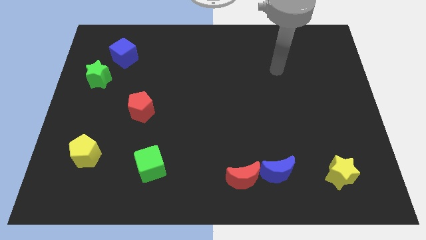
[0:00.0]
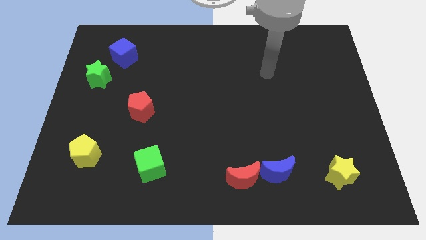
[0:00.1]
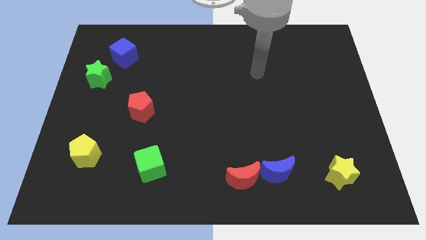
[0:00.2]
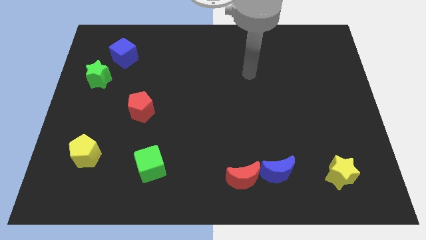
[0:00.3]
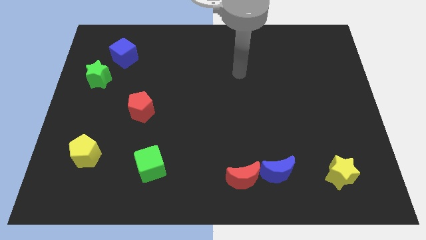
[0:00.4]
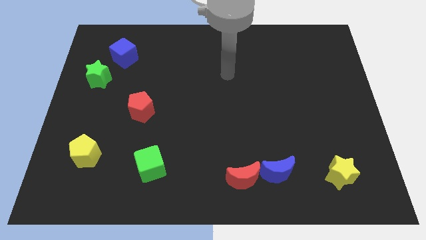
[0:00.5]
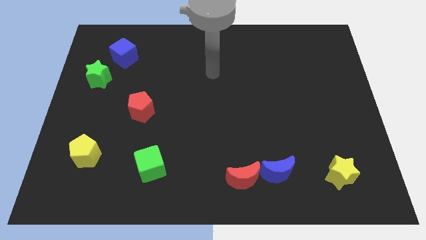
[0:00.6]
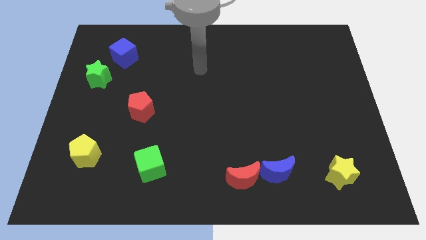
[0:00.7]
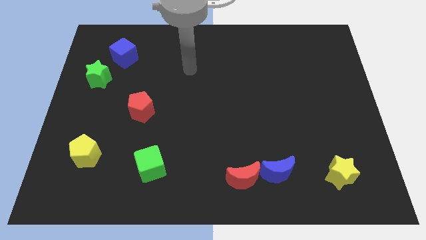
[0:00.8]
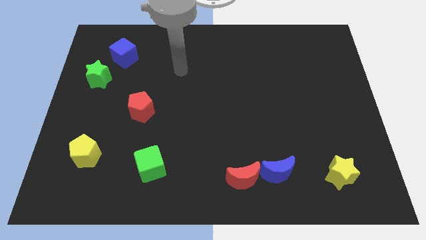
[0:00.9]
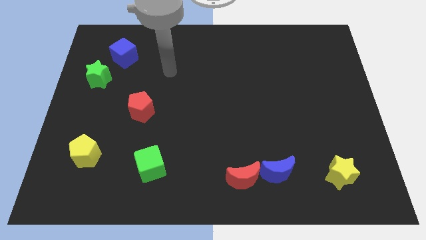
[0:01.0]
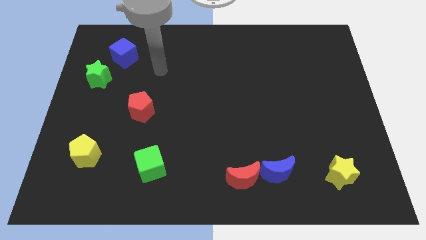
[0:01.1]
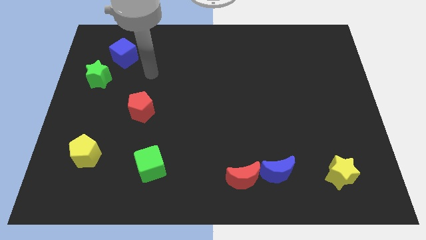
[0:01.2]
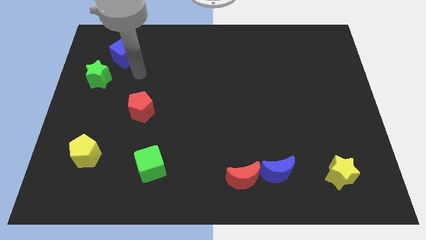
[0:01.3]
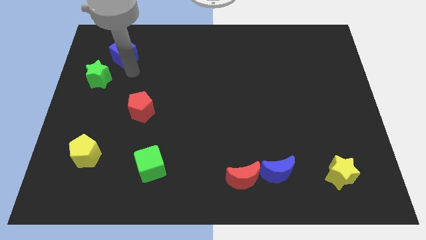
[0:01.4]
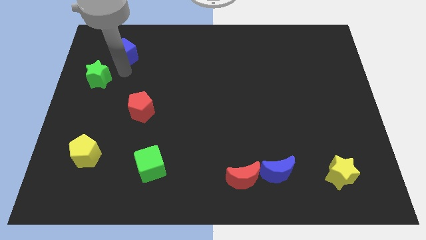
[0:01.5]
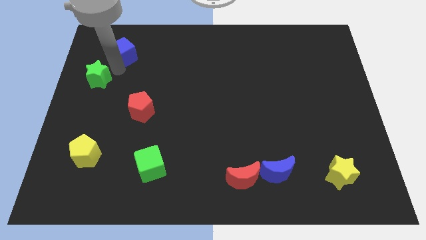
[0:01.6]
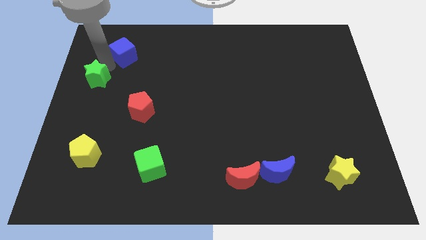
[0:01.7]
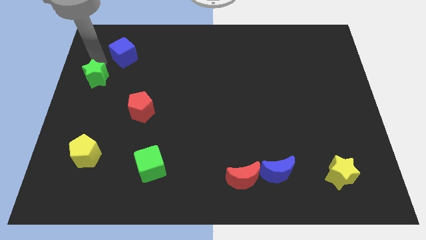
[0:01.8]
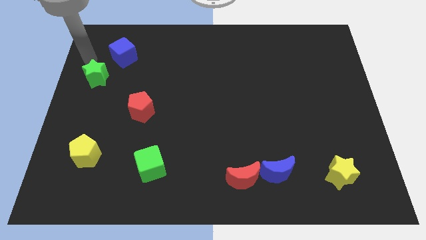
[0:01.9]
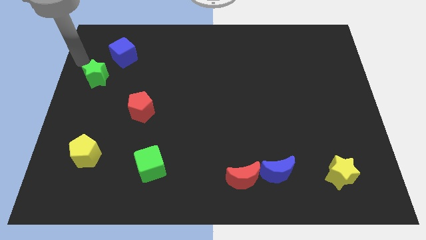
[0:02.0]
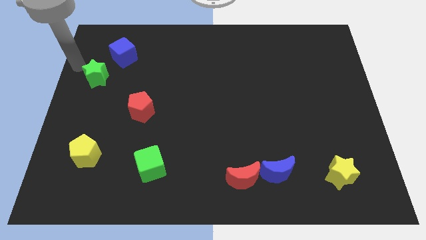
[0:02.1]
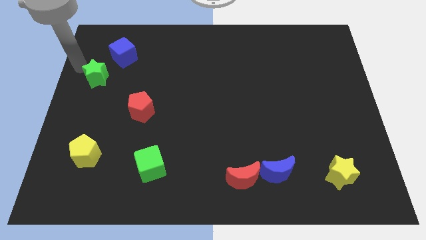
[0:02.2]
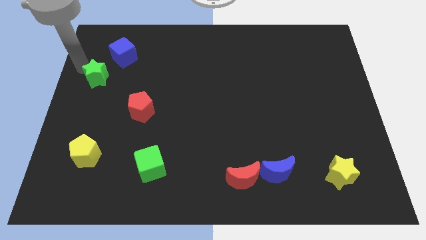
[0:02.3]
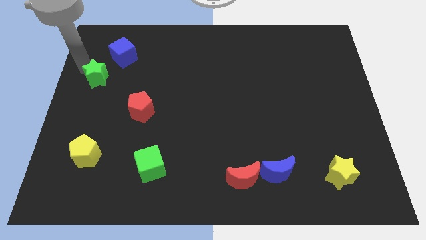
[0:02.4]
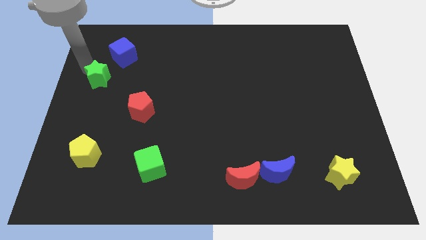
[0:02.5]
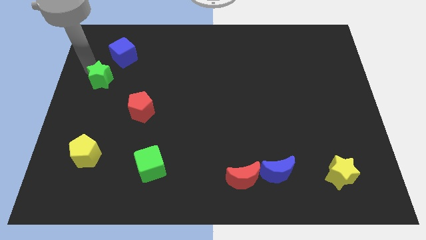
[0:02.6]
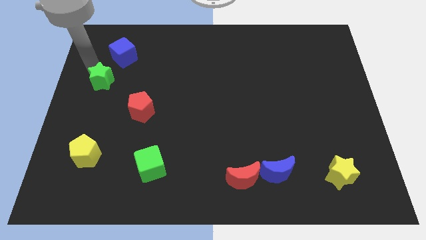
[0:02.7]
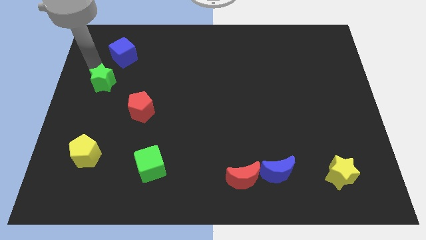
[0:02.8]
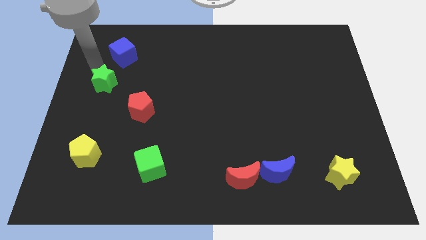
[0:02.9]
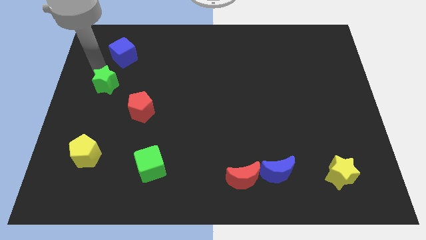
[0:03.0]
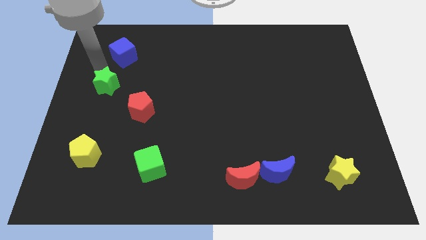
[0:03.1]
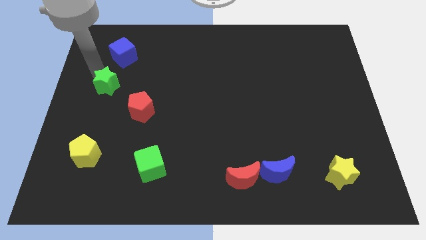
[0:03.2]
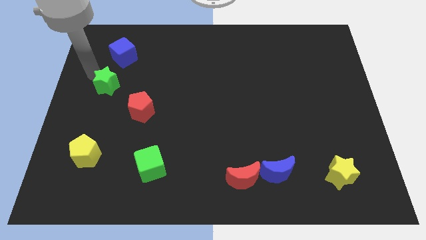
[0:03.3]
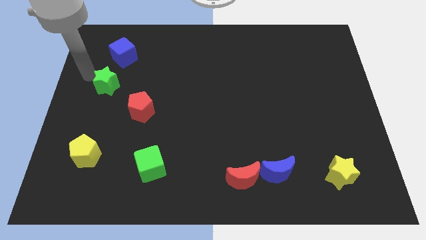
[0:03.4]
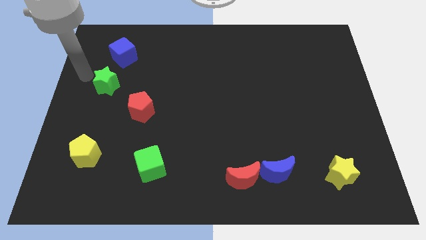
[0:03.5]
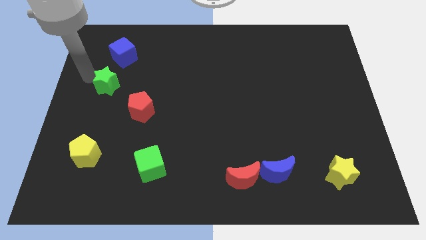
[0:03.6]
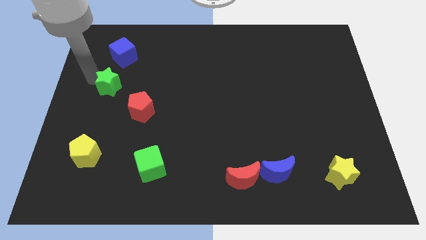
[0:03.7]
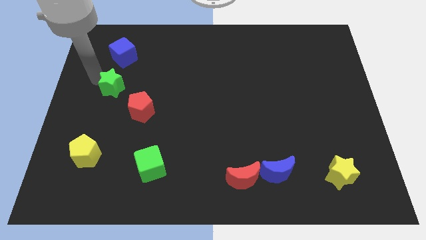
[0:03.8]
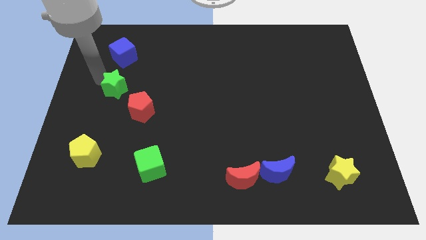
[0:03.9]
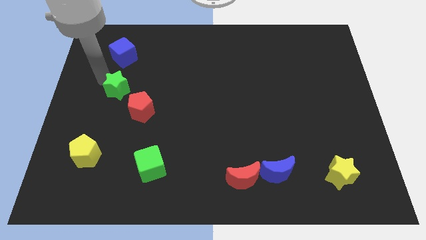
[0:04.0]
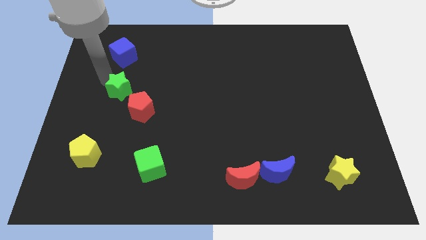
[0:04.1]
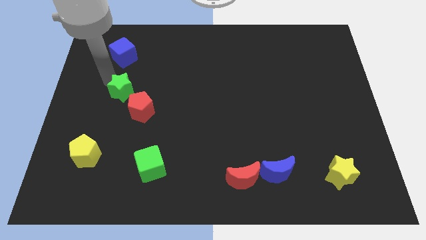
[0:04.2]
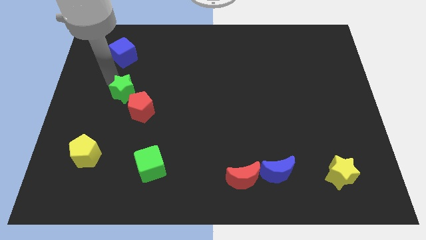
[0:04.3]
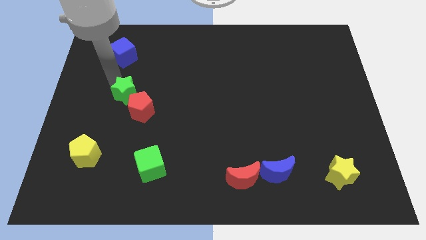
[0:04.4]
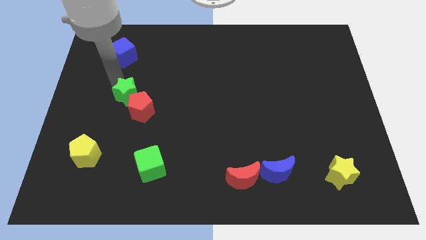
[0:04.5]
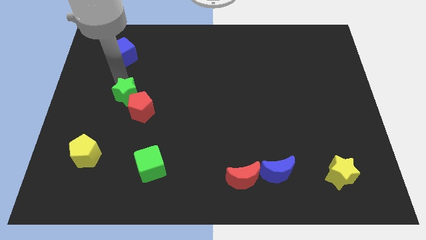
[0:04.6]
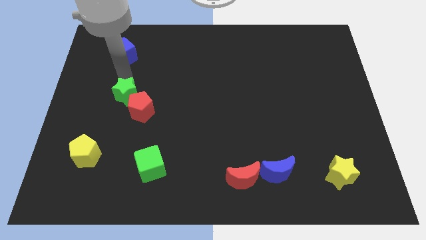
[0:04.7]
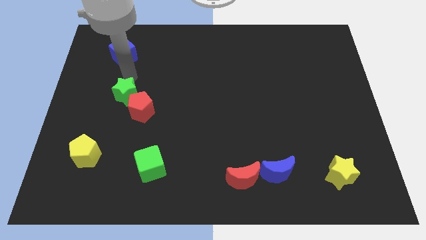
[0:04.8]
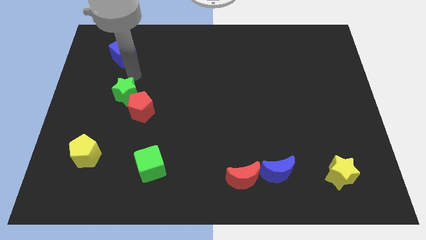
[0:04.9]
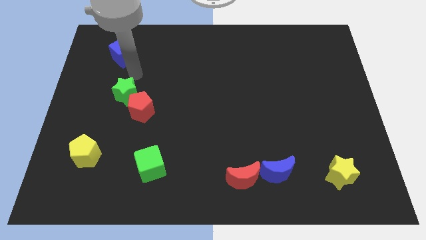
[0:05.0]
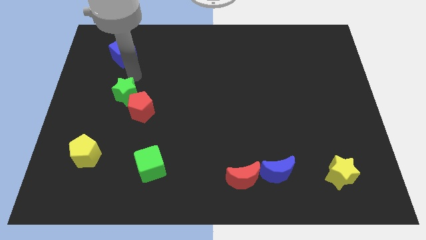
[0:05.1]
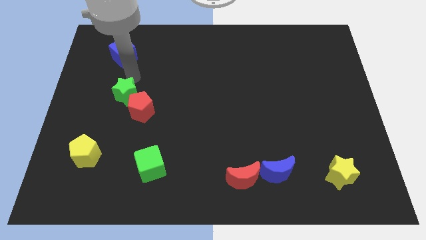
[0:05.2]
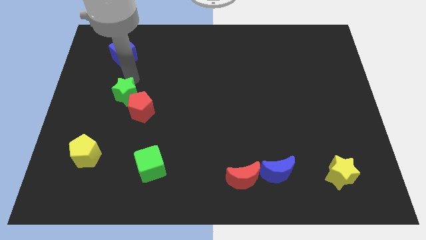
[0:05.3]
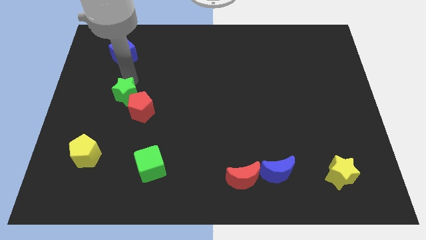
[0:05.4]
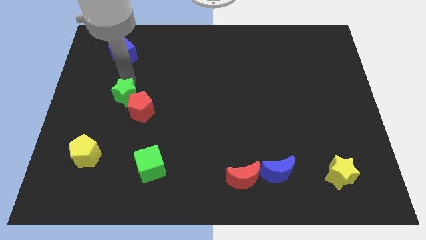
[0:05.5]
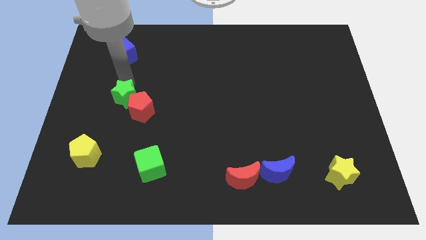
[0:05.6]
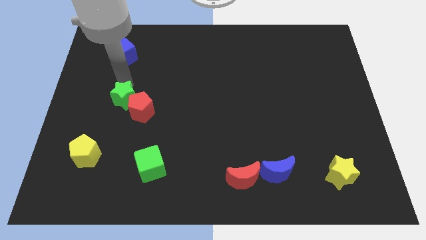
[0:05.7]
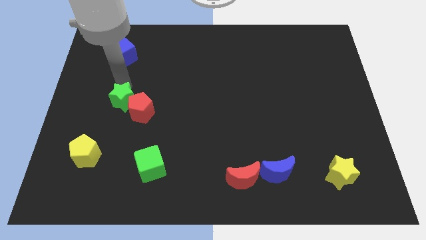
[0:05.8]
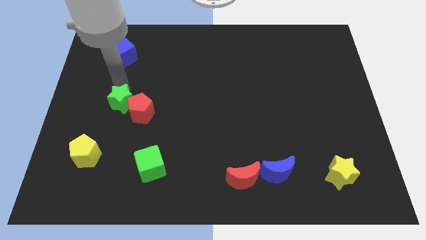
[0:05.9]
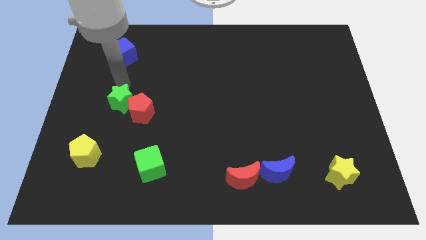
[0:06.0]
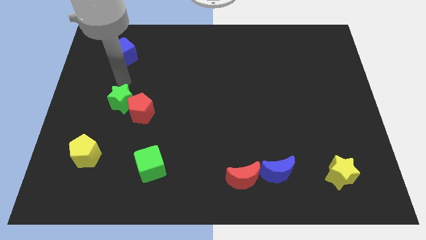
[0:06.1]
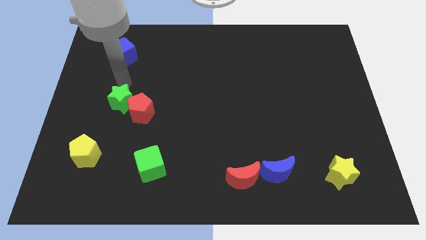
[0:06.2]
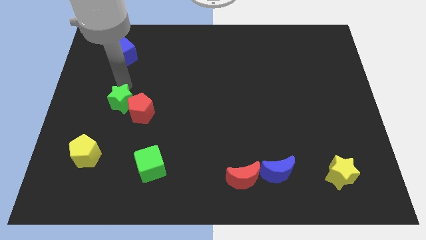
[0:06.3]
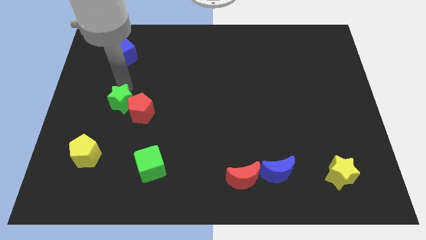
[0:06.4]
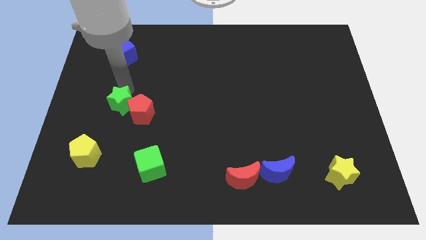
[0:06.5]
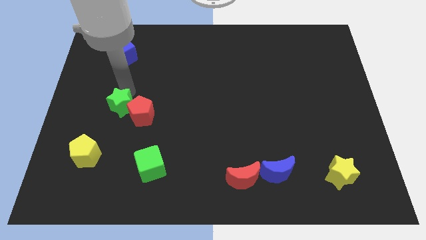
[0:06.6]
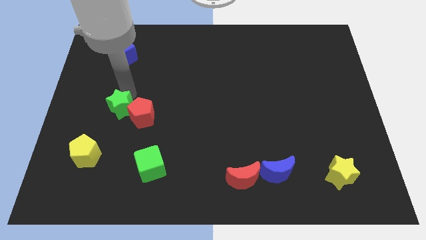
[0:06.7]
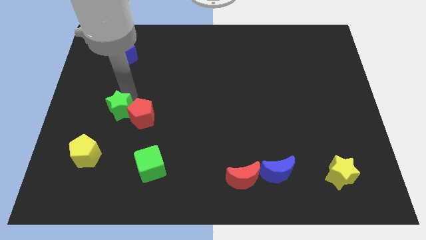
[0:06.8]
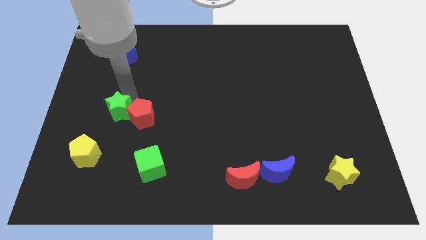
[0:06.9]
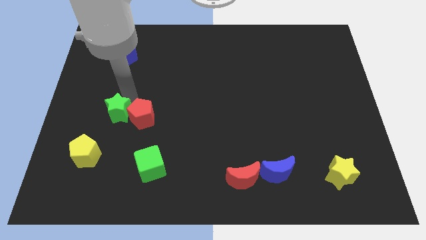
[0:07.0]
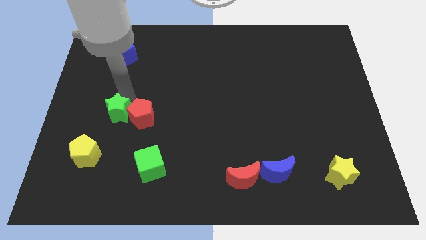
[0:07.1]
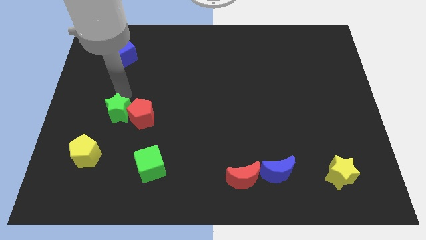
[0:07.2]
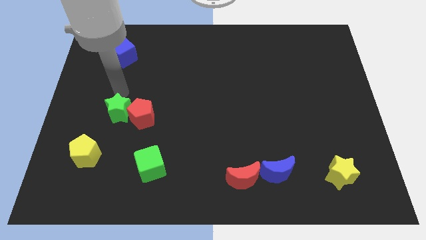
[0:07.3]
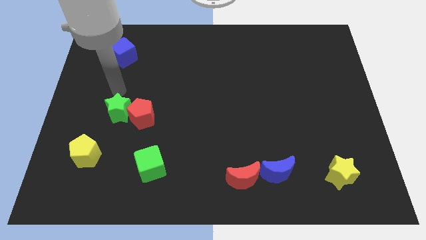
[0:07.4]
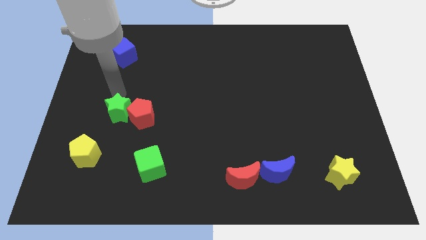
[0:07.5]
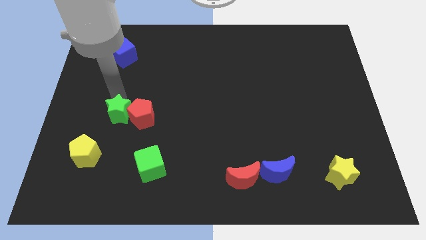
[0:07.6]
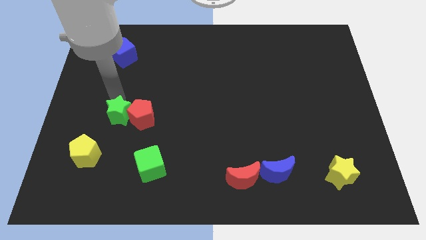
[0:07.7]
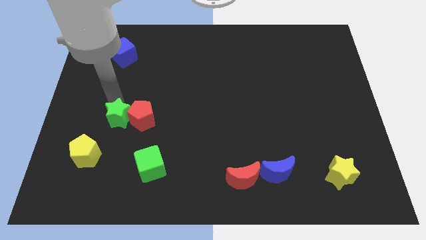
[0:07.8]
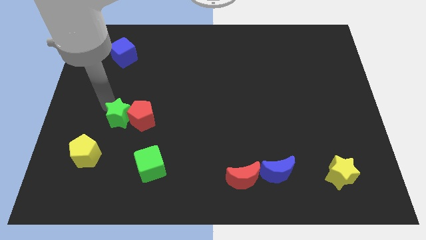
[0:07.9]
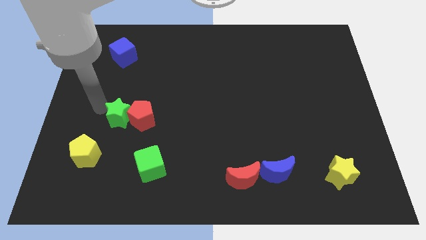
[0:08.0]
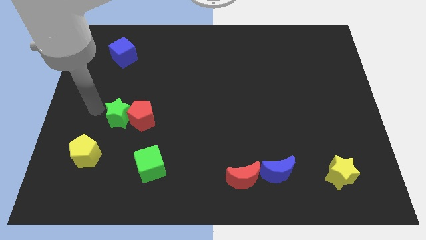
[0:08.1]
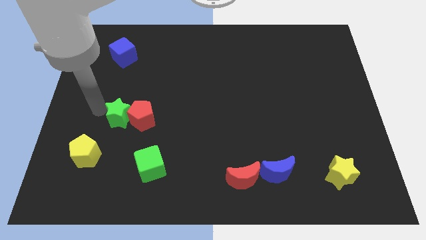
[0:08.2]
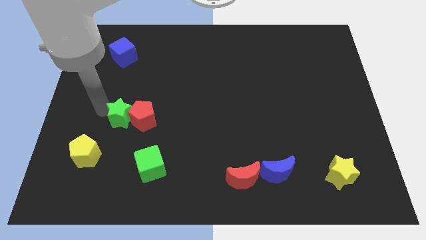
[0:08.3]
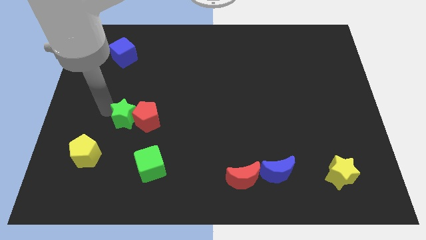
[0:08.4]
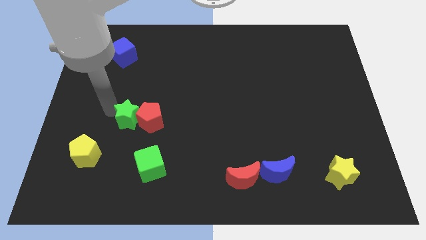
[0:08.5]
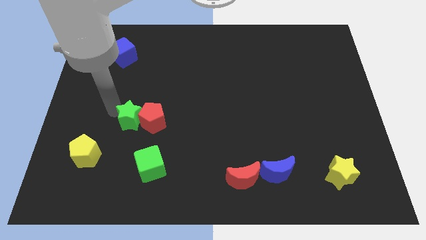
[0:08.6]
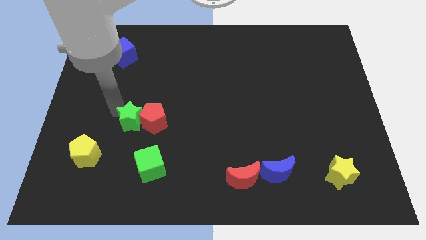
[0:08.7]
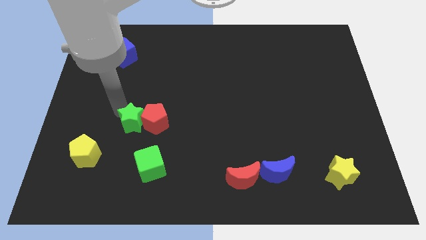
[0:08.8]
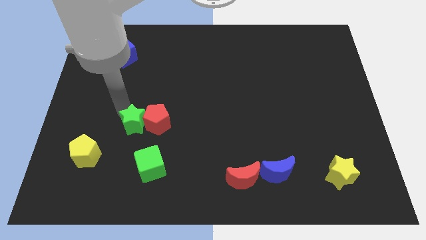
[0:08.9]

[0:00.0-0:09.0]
push the green star above the green cube
